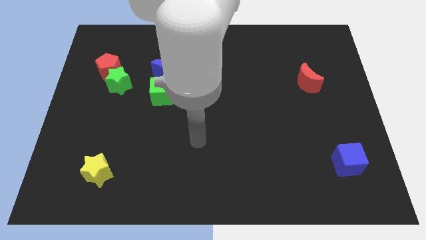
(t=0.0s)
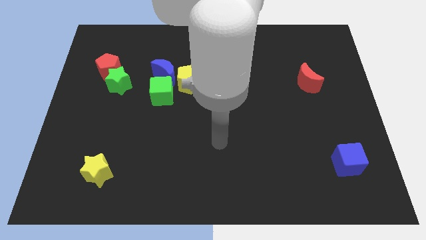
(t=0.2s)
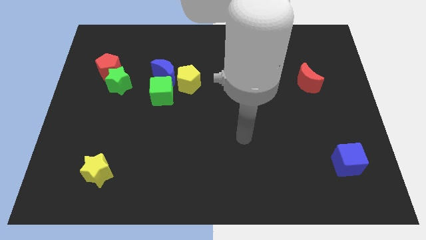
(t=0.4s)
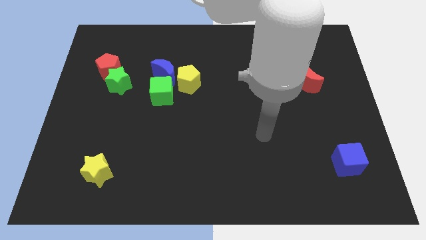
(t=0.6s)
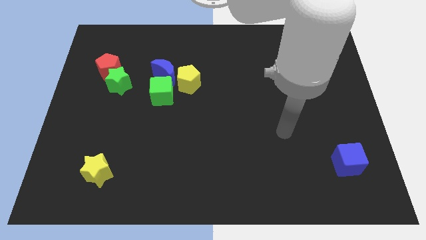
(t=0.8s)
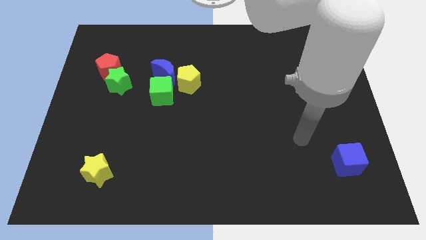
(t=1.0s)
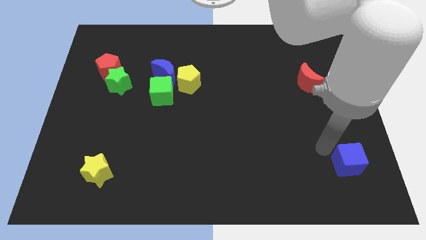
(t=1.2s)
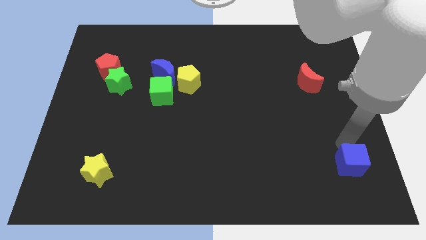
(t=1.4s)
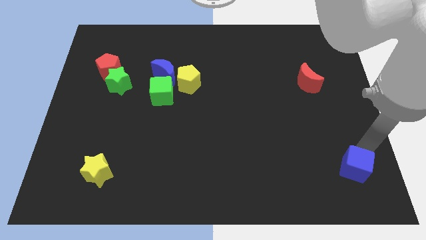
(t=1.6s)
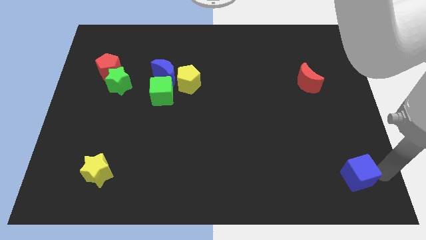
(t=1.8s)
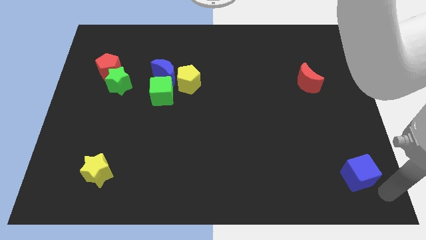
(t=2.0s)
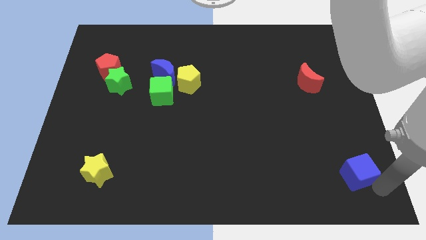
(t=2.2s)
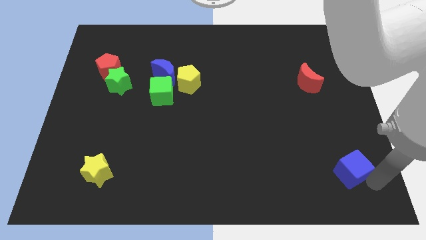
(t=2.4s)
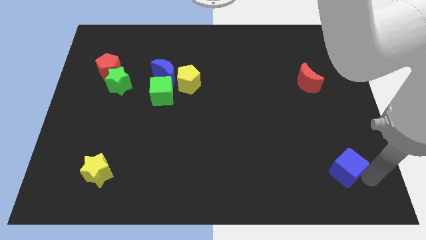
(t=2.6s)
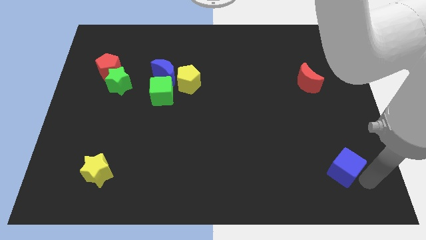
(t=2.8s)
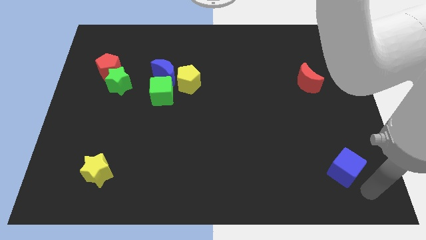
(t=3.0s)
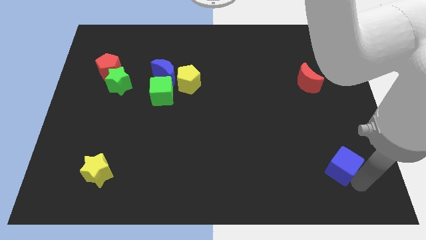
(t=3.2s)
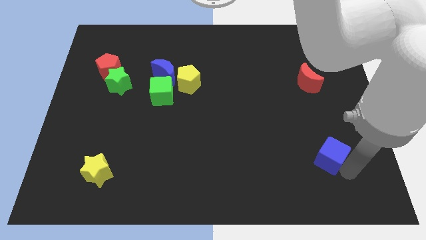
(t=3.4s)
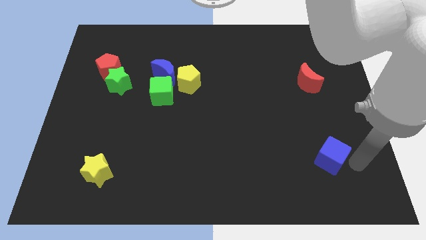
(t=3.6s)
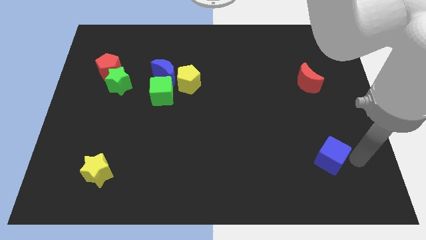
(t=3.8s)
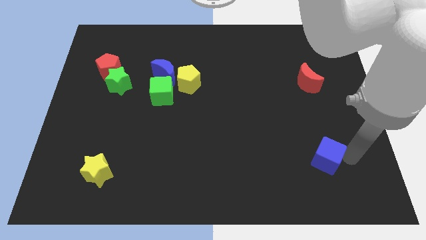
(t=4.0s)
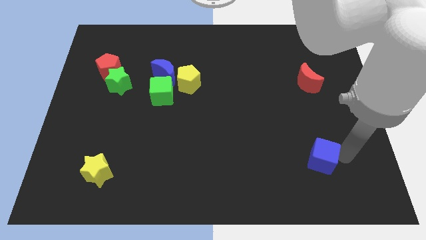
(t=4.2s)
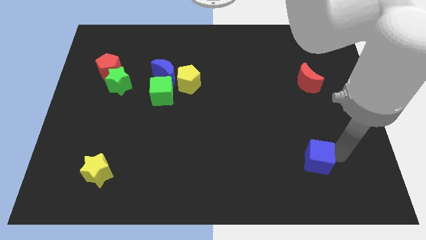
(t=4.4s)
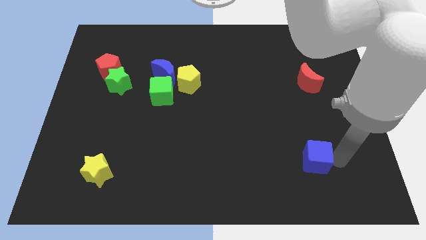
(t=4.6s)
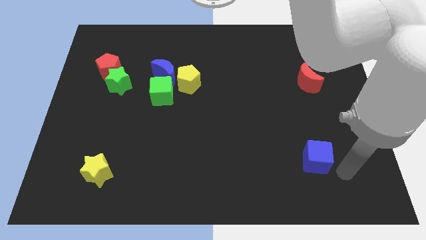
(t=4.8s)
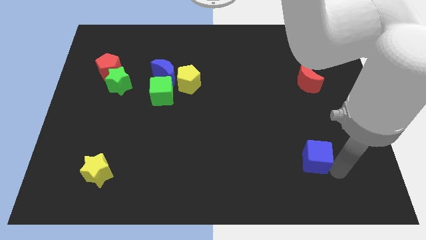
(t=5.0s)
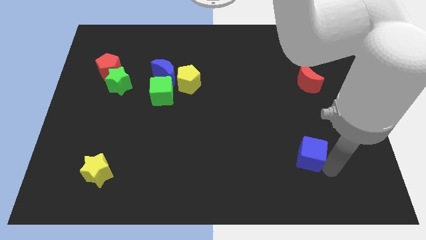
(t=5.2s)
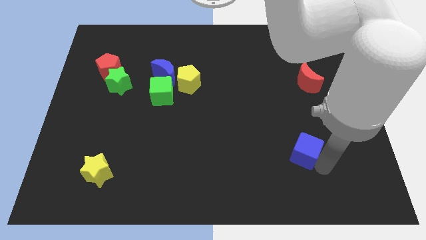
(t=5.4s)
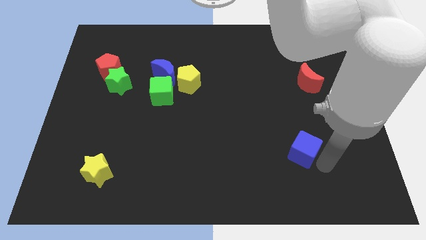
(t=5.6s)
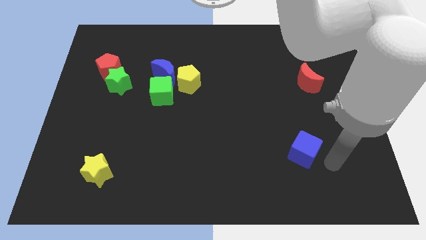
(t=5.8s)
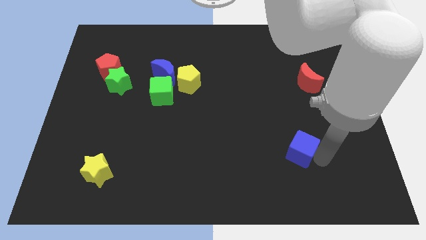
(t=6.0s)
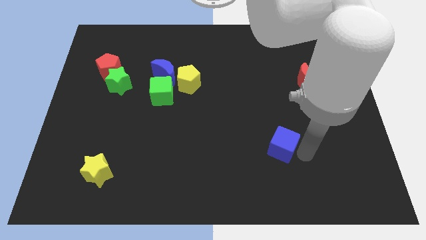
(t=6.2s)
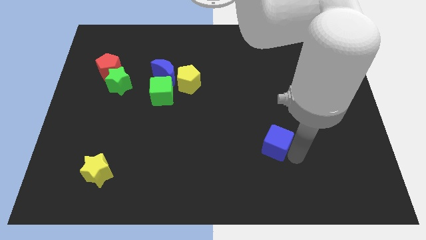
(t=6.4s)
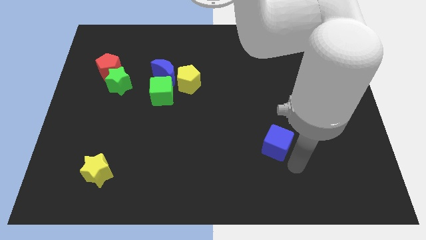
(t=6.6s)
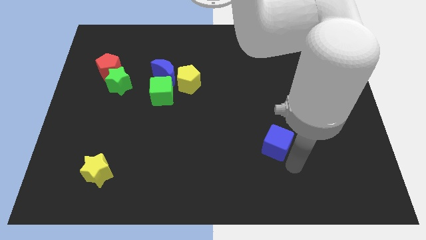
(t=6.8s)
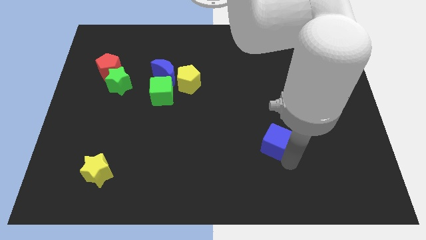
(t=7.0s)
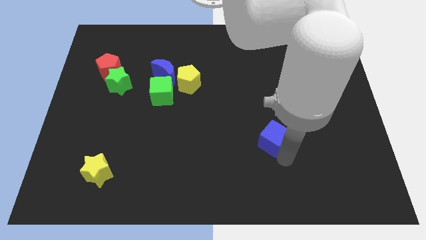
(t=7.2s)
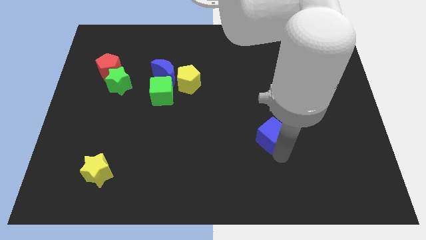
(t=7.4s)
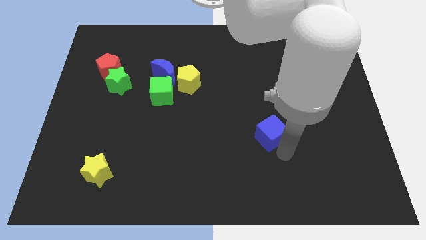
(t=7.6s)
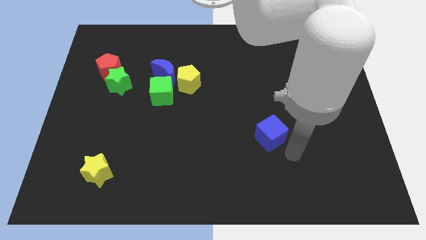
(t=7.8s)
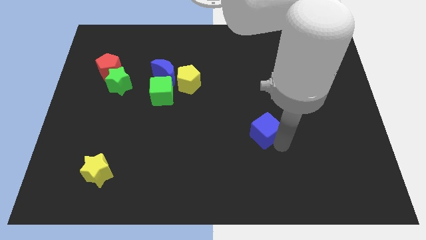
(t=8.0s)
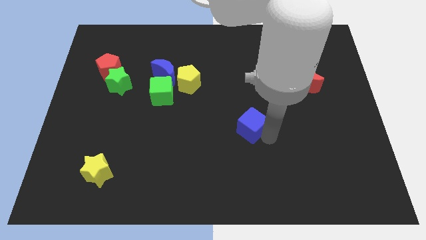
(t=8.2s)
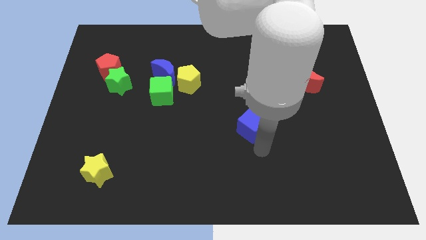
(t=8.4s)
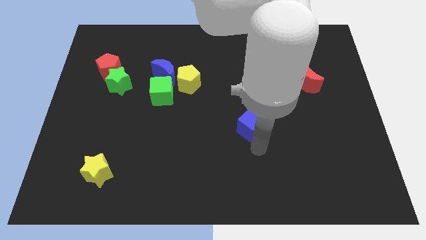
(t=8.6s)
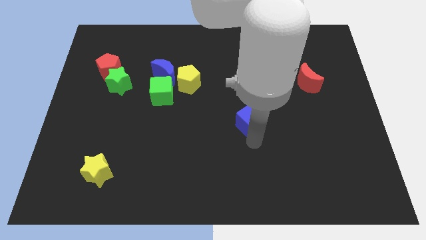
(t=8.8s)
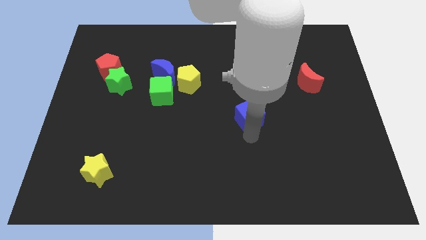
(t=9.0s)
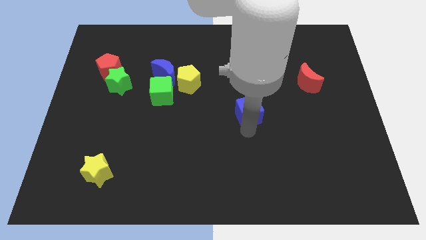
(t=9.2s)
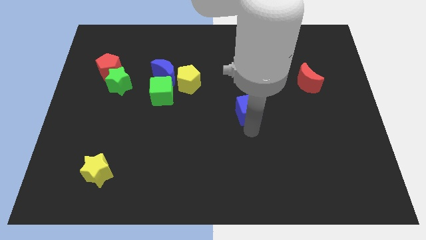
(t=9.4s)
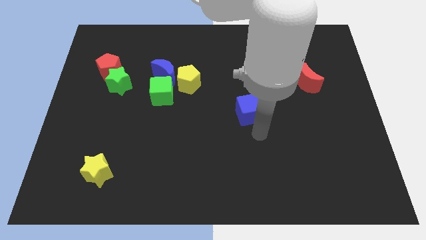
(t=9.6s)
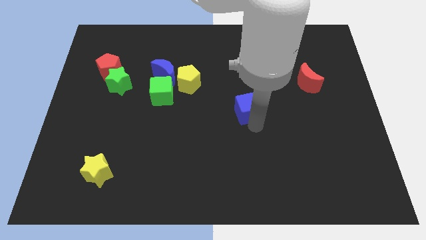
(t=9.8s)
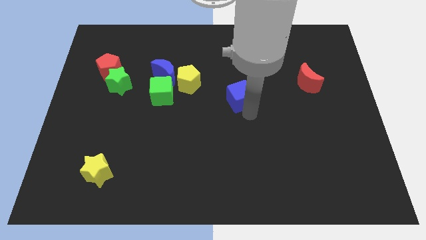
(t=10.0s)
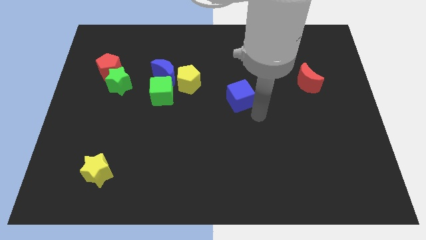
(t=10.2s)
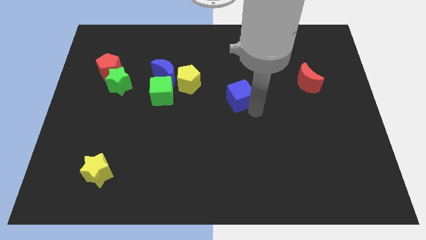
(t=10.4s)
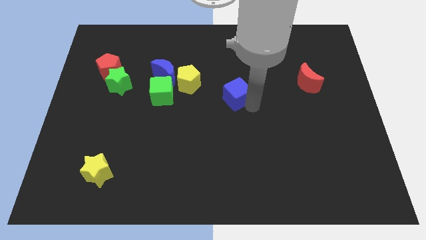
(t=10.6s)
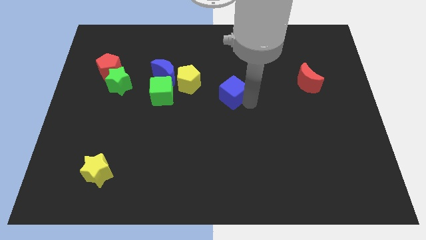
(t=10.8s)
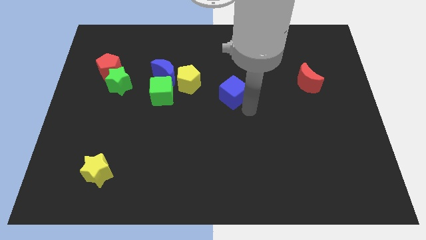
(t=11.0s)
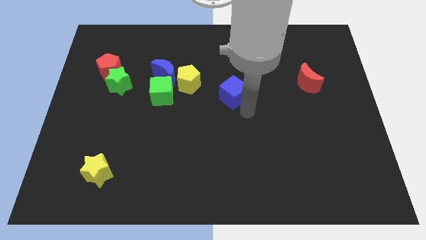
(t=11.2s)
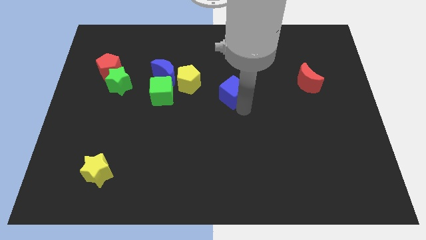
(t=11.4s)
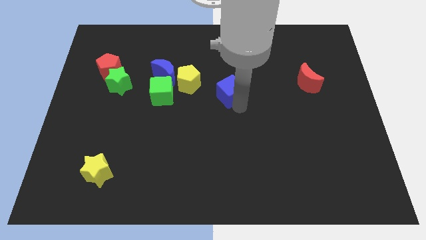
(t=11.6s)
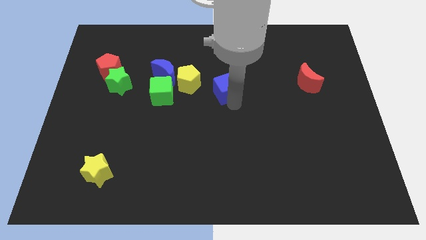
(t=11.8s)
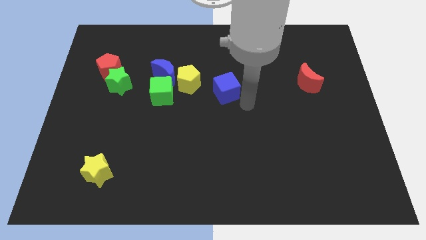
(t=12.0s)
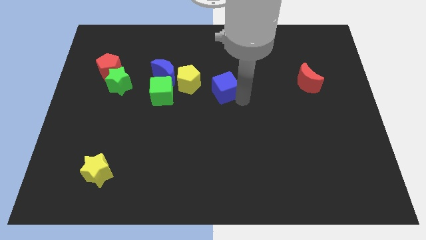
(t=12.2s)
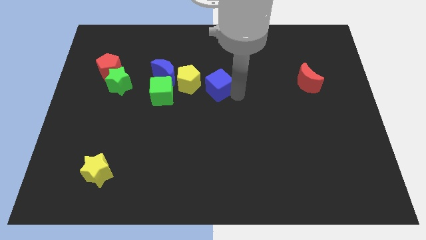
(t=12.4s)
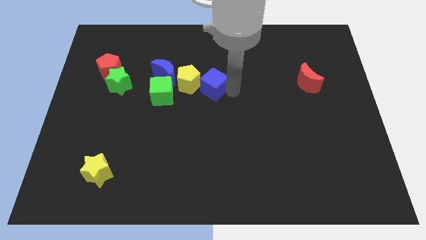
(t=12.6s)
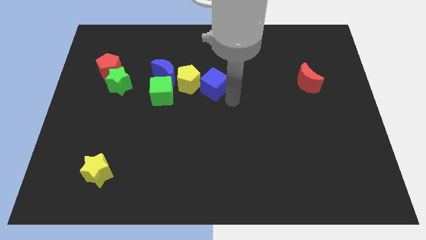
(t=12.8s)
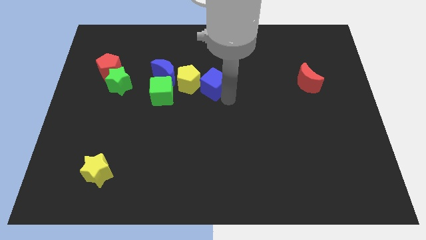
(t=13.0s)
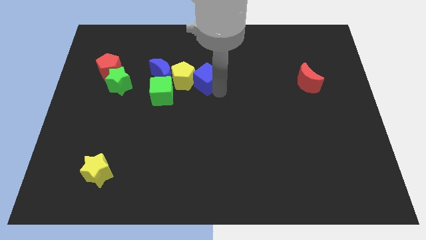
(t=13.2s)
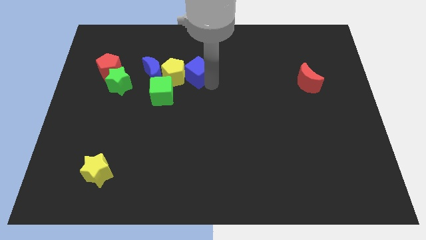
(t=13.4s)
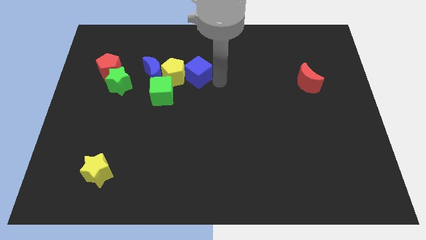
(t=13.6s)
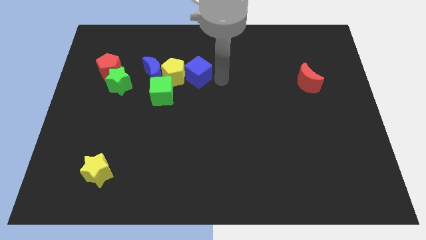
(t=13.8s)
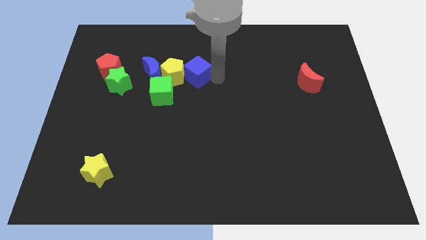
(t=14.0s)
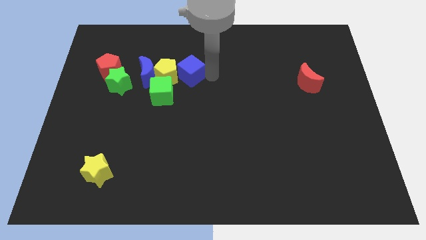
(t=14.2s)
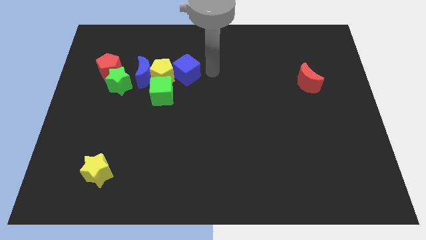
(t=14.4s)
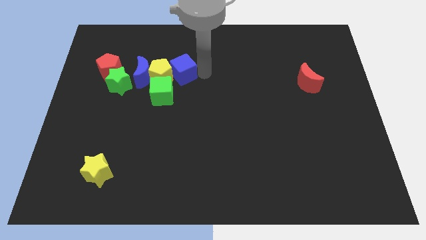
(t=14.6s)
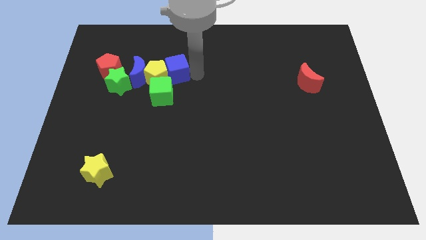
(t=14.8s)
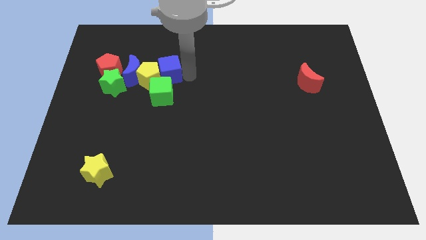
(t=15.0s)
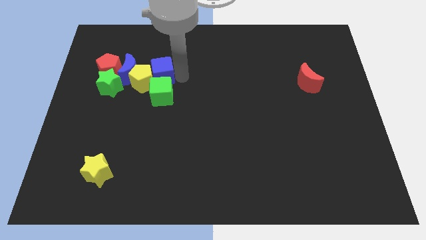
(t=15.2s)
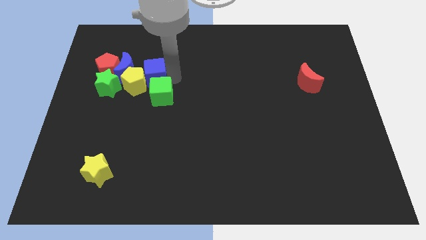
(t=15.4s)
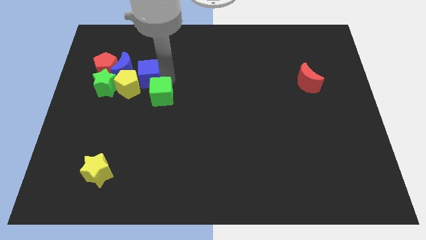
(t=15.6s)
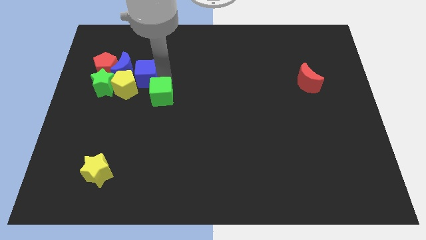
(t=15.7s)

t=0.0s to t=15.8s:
slide the blue cube towards the blue moon
